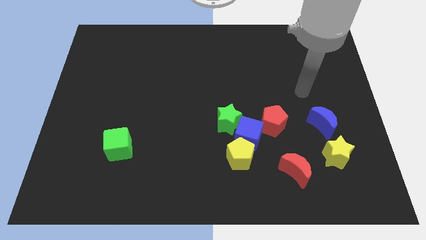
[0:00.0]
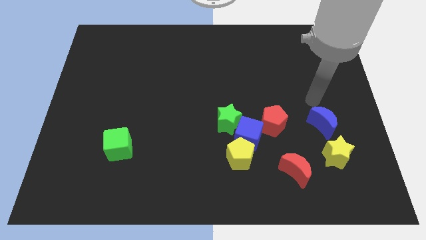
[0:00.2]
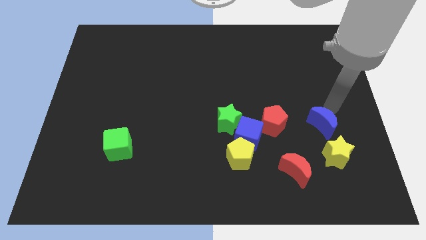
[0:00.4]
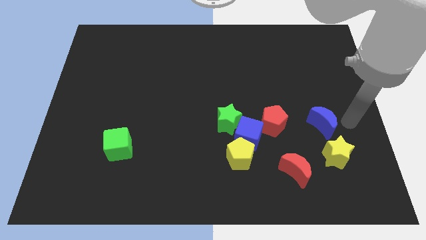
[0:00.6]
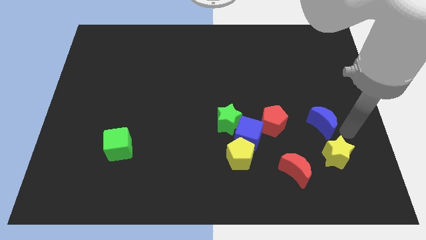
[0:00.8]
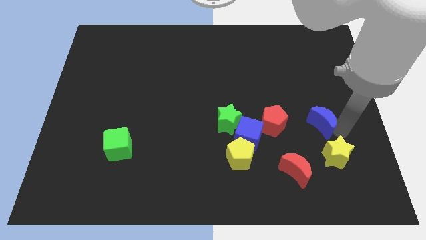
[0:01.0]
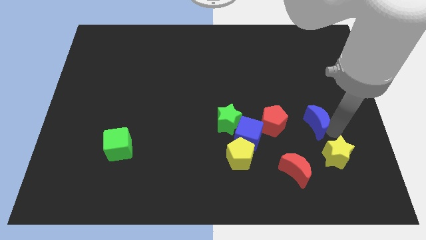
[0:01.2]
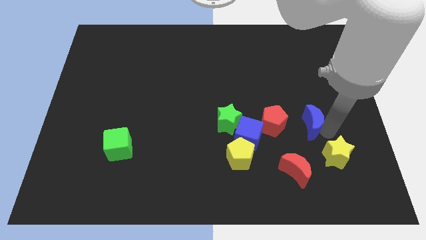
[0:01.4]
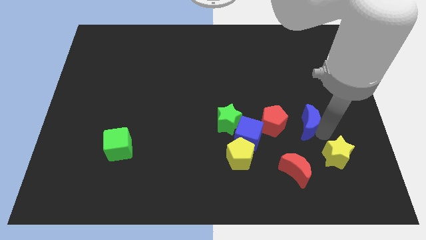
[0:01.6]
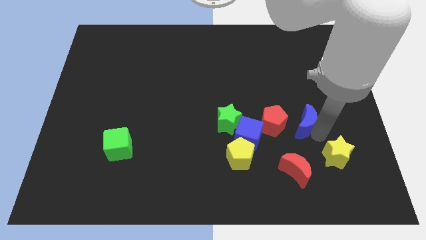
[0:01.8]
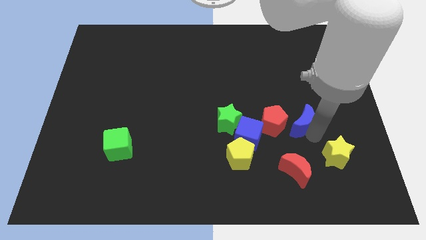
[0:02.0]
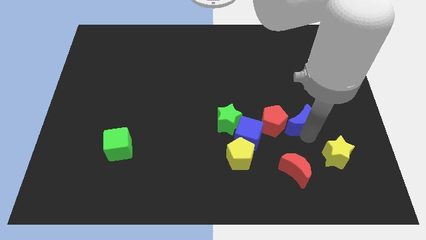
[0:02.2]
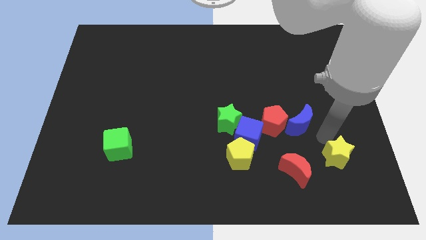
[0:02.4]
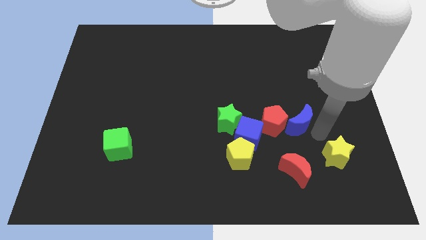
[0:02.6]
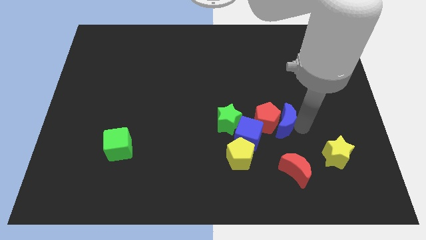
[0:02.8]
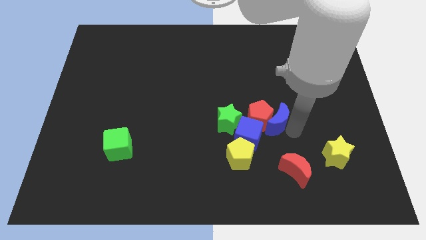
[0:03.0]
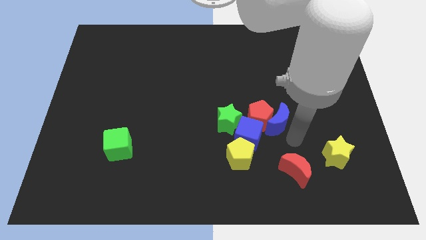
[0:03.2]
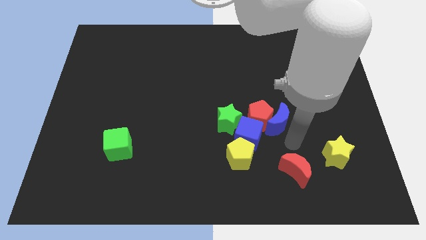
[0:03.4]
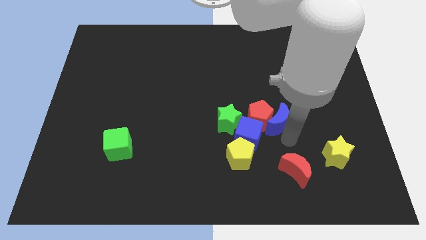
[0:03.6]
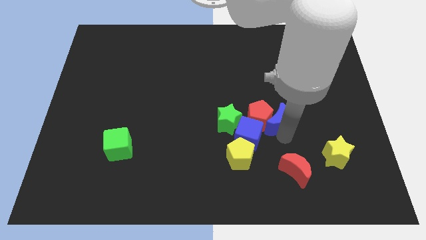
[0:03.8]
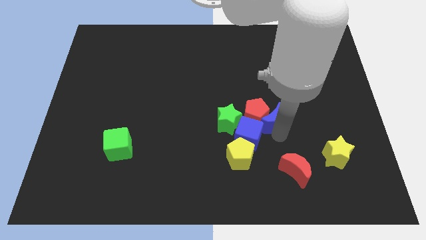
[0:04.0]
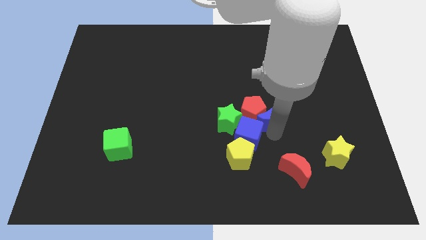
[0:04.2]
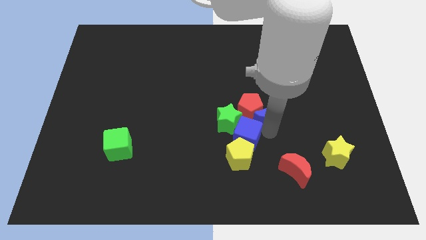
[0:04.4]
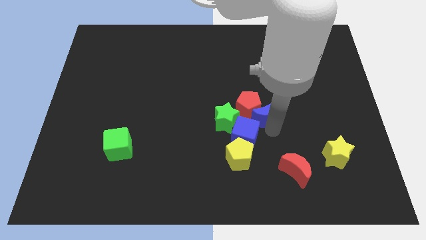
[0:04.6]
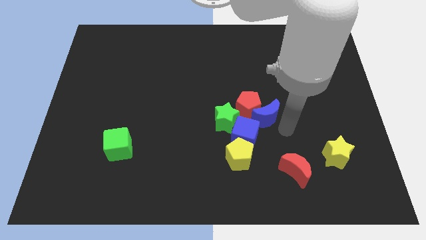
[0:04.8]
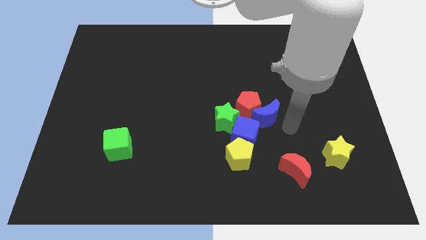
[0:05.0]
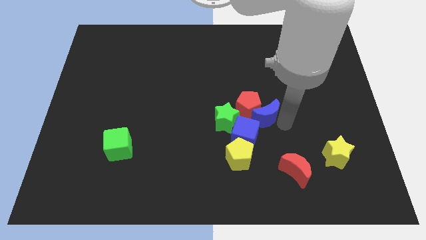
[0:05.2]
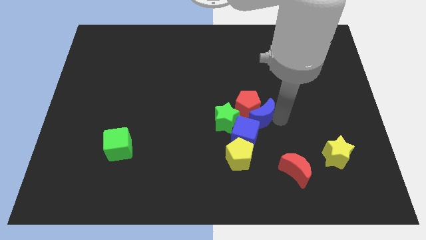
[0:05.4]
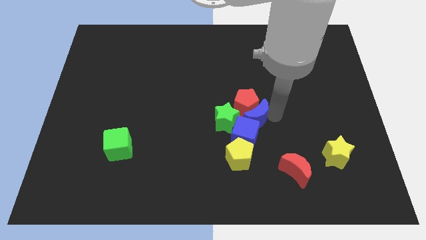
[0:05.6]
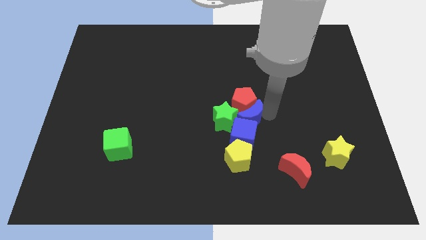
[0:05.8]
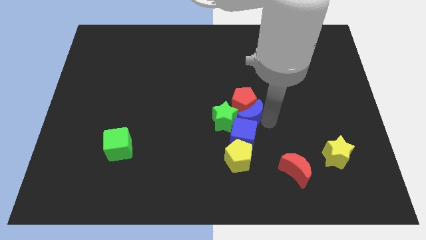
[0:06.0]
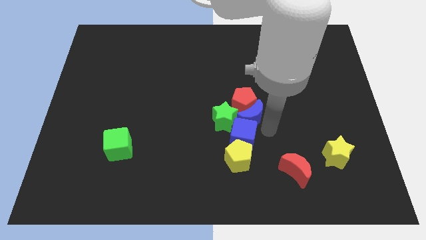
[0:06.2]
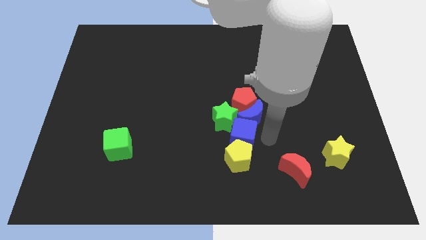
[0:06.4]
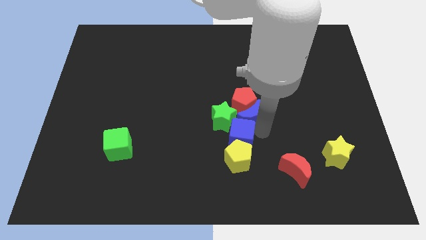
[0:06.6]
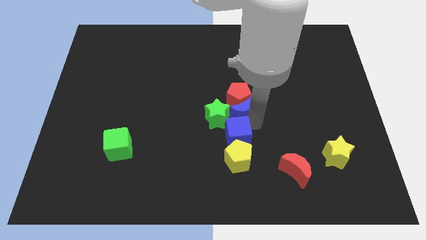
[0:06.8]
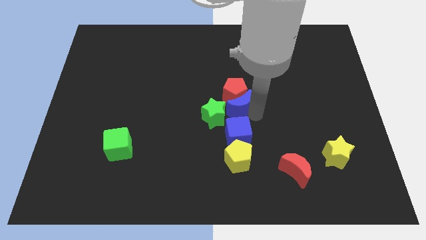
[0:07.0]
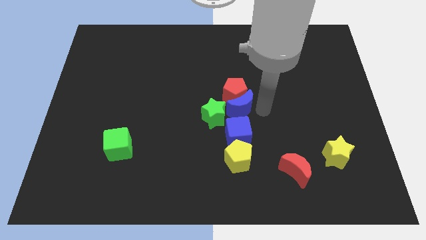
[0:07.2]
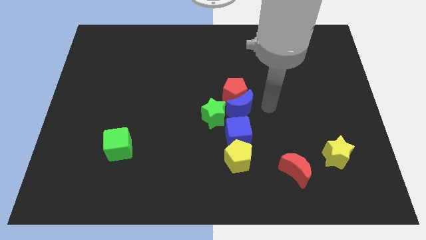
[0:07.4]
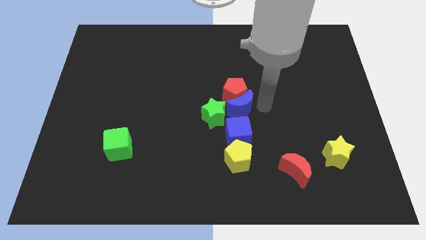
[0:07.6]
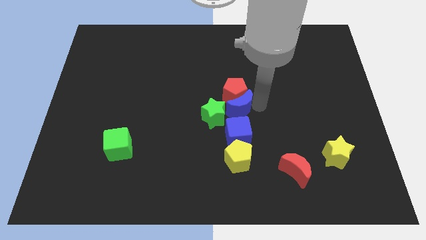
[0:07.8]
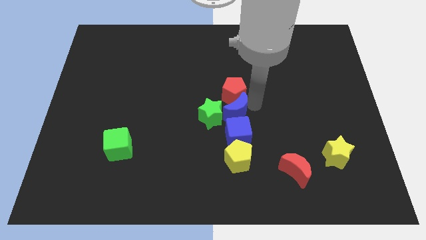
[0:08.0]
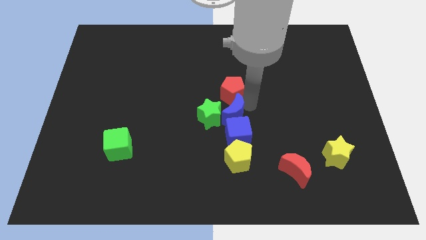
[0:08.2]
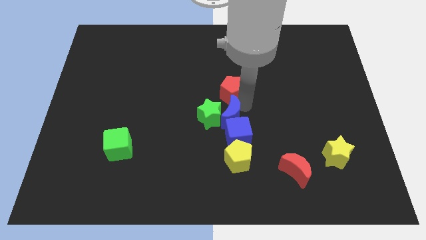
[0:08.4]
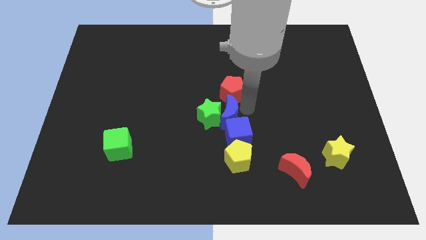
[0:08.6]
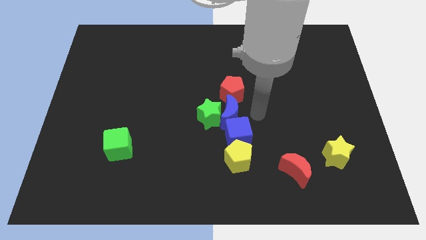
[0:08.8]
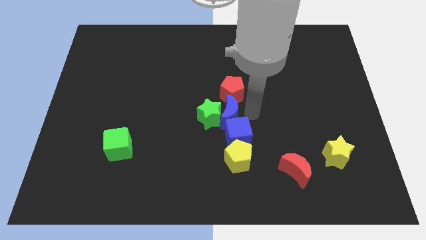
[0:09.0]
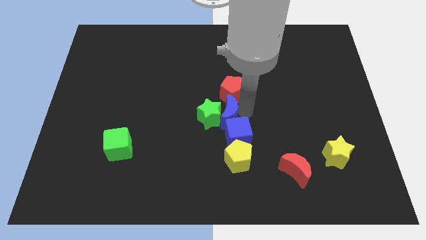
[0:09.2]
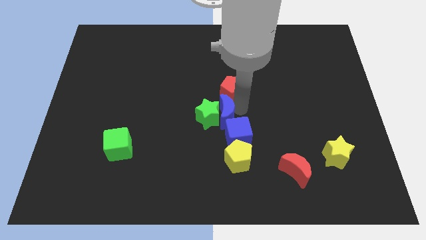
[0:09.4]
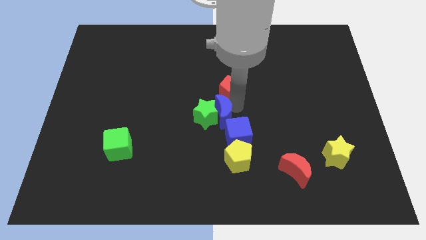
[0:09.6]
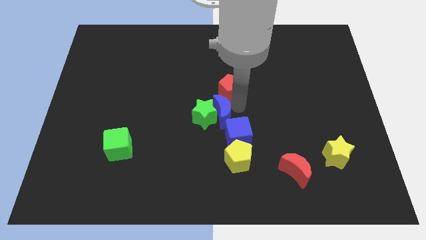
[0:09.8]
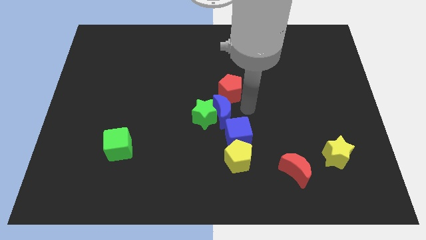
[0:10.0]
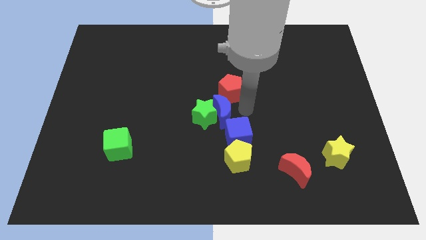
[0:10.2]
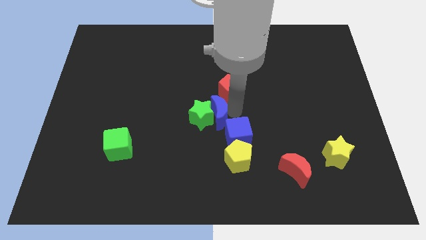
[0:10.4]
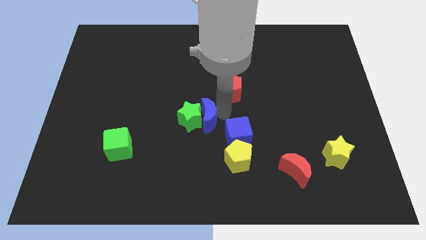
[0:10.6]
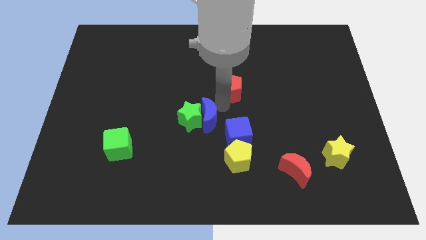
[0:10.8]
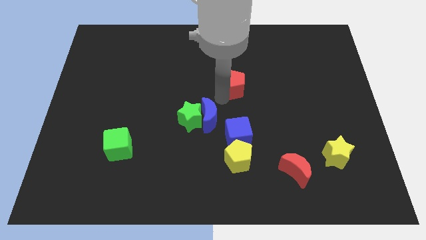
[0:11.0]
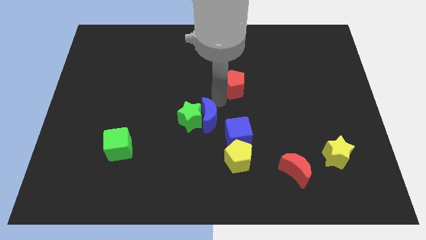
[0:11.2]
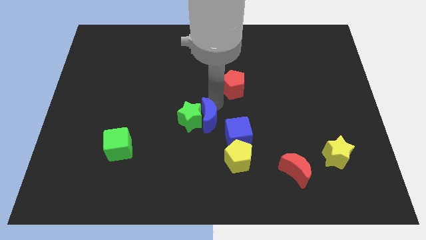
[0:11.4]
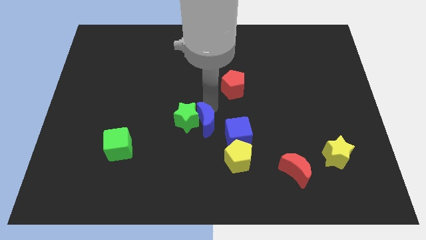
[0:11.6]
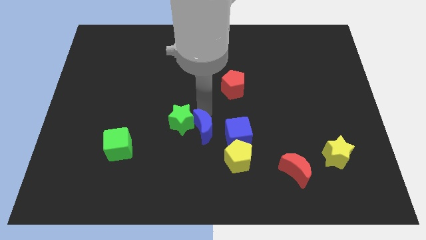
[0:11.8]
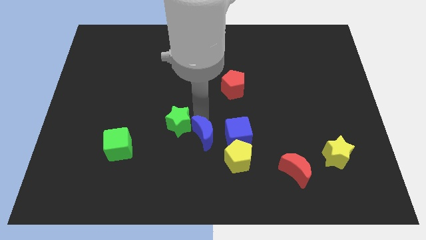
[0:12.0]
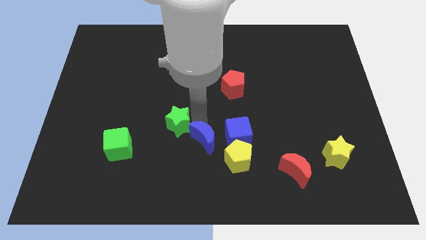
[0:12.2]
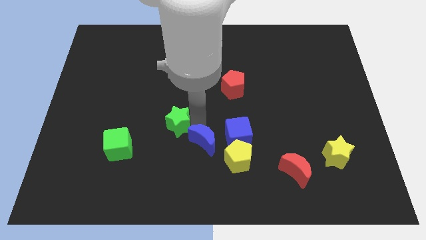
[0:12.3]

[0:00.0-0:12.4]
put the blue moon just left of the yellow pentagon

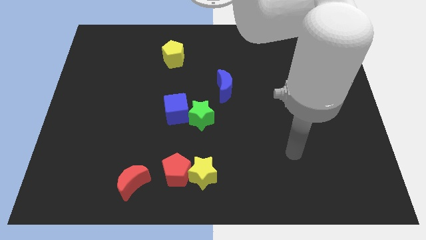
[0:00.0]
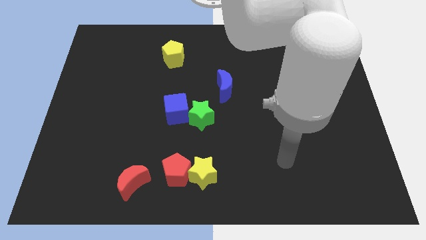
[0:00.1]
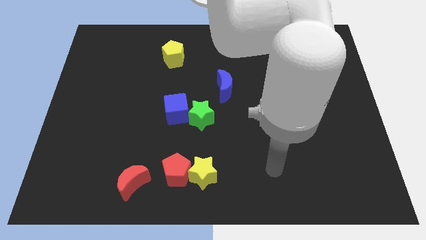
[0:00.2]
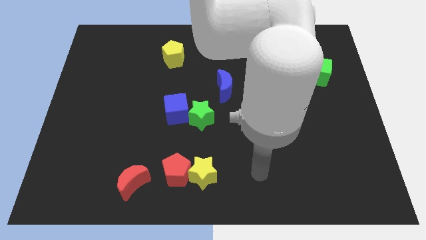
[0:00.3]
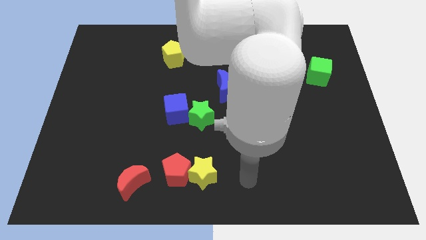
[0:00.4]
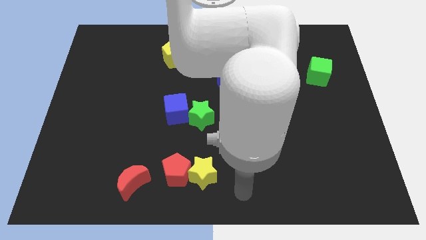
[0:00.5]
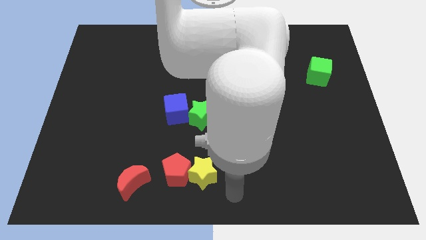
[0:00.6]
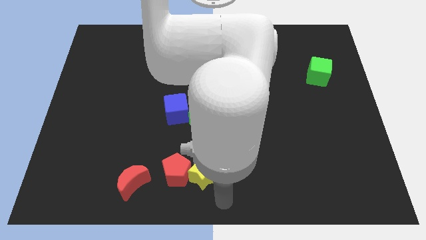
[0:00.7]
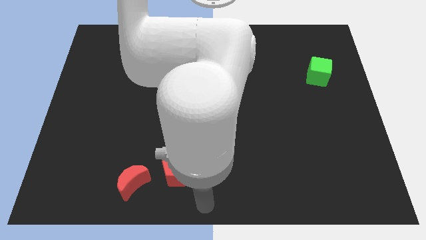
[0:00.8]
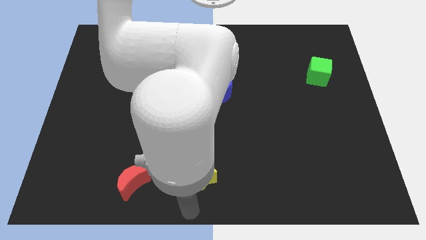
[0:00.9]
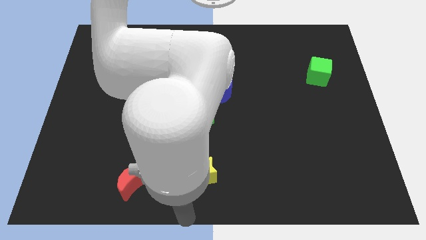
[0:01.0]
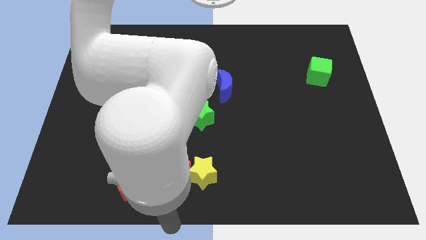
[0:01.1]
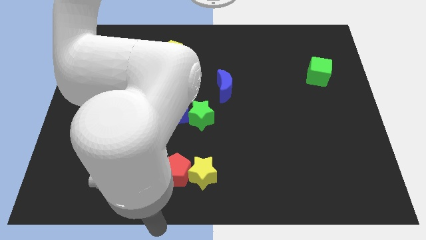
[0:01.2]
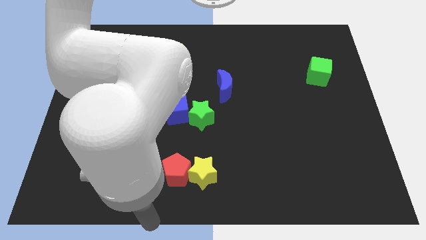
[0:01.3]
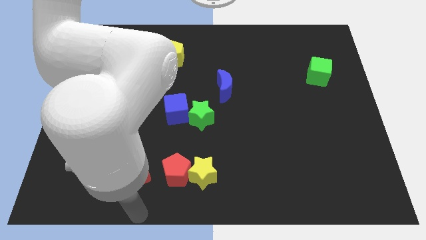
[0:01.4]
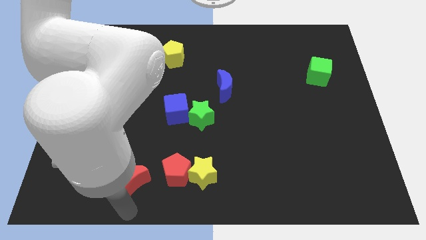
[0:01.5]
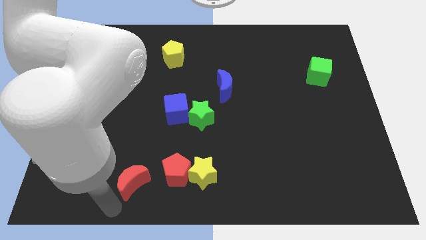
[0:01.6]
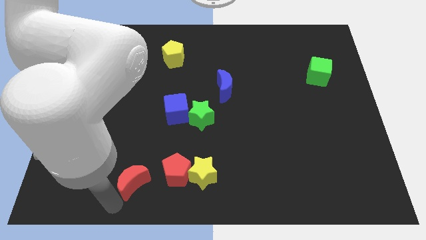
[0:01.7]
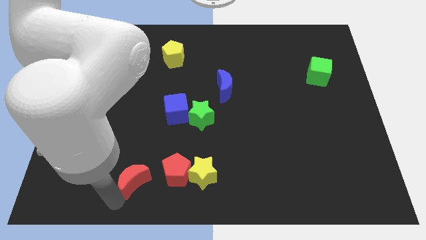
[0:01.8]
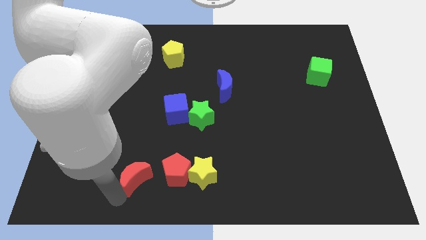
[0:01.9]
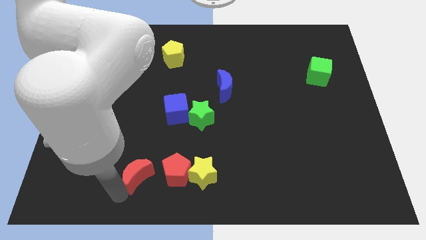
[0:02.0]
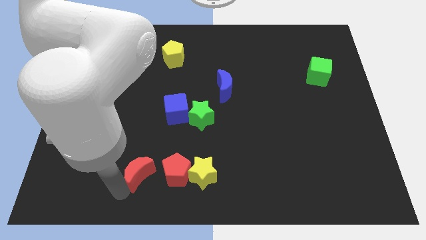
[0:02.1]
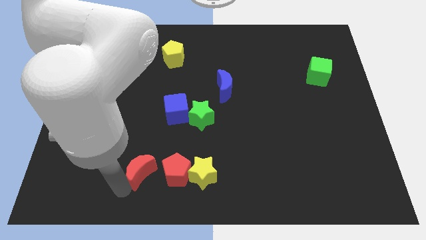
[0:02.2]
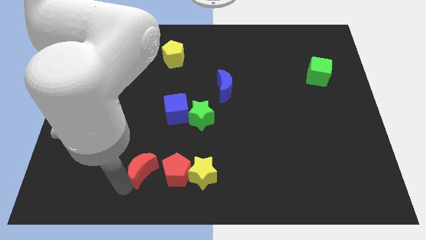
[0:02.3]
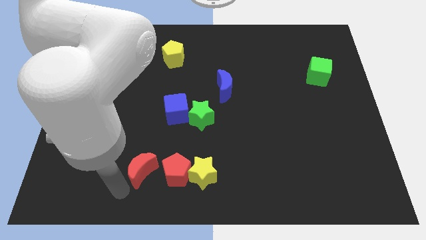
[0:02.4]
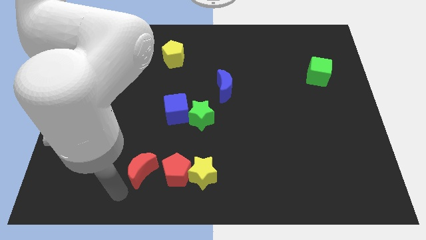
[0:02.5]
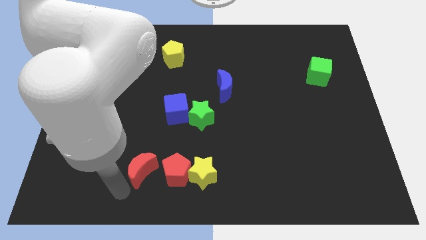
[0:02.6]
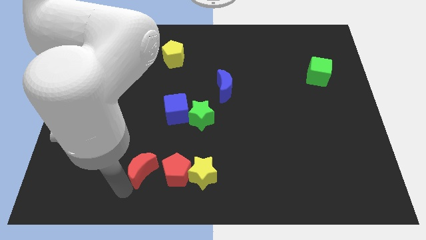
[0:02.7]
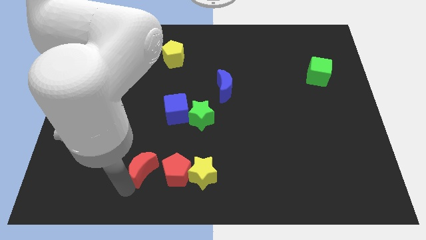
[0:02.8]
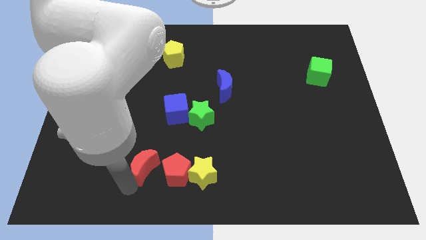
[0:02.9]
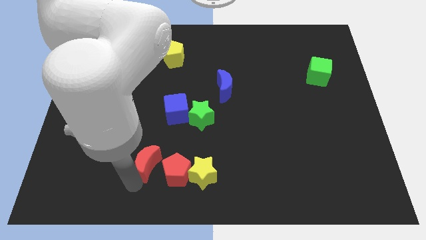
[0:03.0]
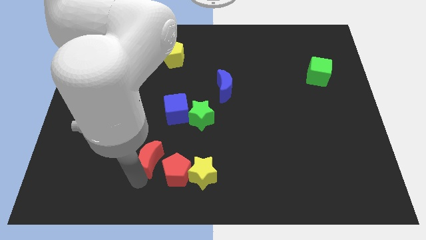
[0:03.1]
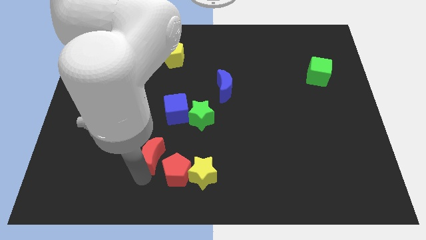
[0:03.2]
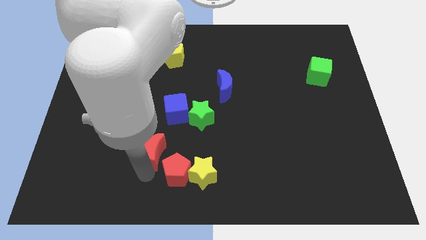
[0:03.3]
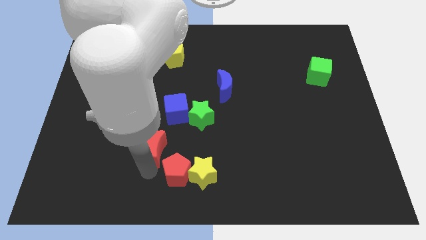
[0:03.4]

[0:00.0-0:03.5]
push the red moon to the top of the red pentagon
